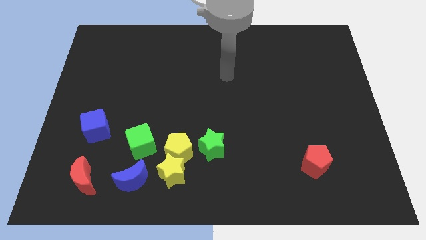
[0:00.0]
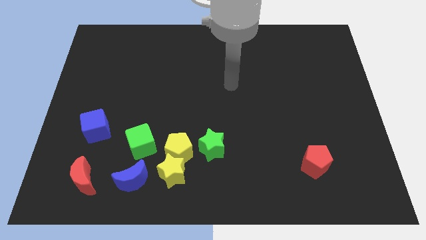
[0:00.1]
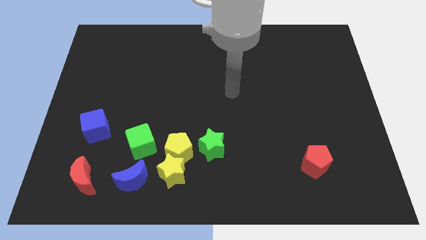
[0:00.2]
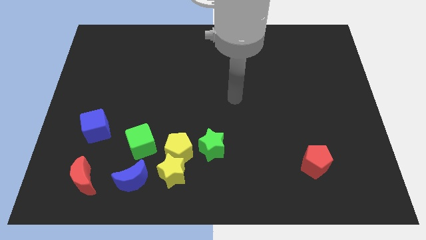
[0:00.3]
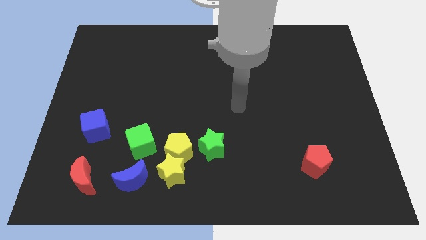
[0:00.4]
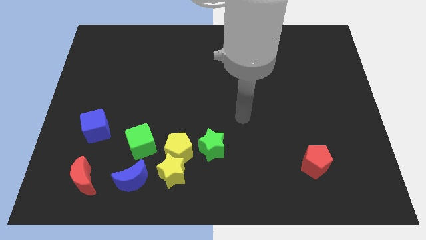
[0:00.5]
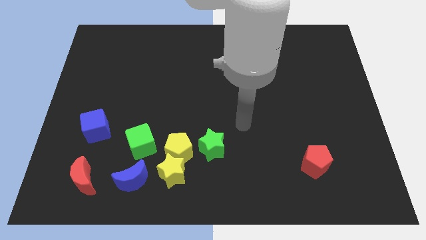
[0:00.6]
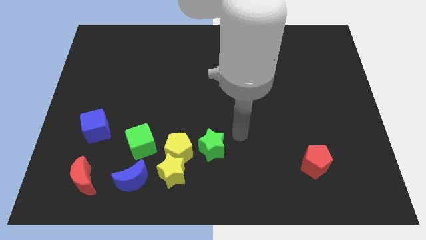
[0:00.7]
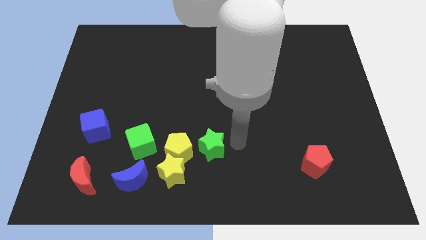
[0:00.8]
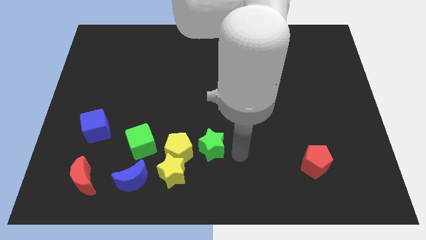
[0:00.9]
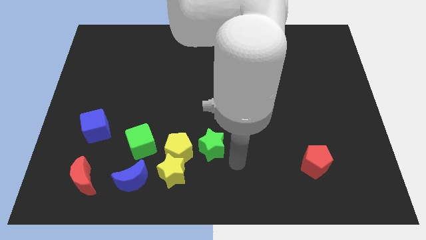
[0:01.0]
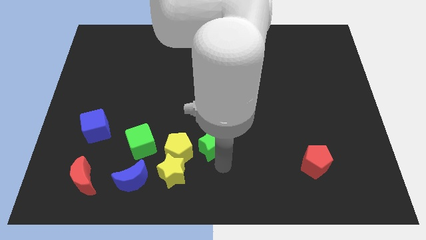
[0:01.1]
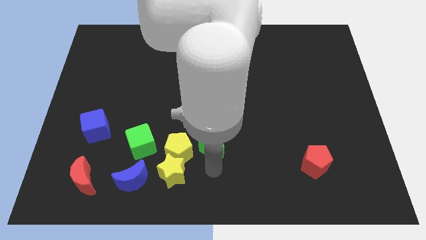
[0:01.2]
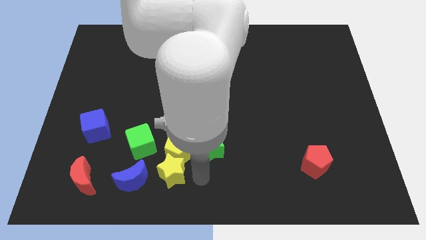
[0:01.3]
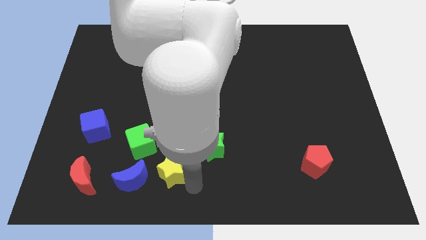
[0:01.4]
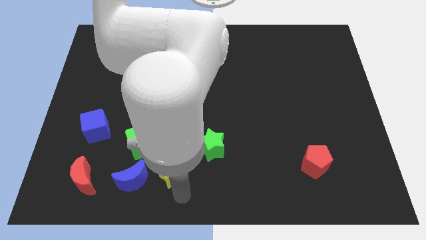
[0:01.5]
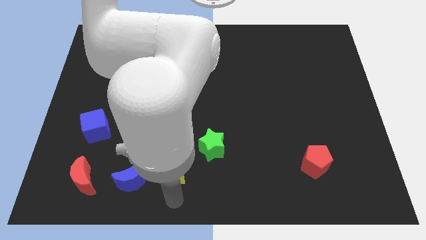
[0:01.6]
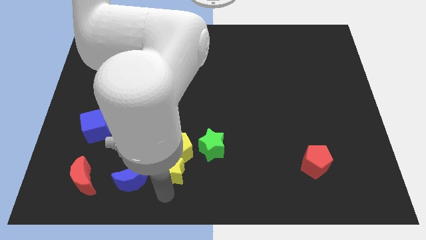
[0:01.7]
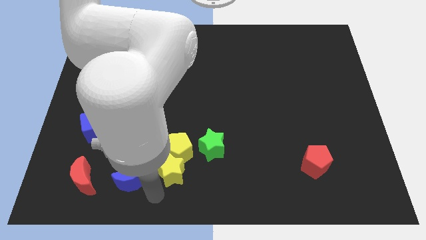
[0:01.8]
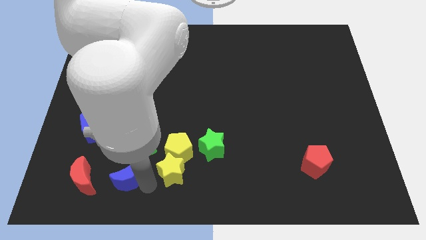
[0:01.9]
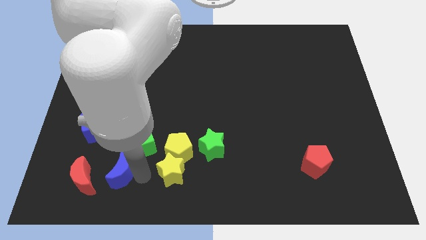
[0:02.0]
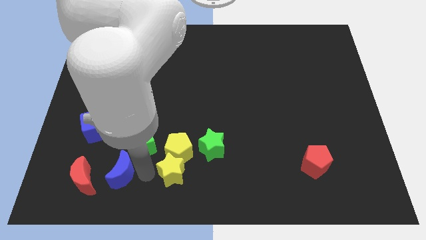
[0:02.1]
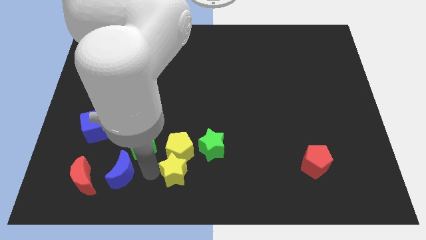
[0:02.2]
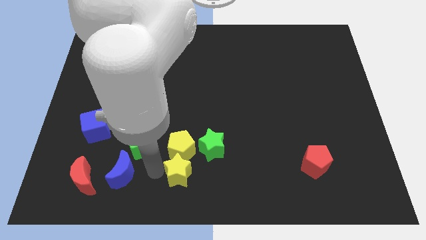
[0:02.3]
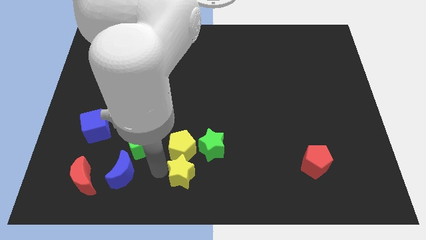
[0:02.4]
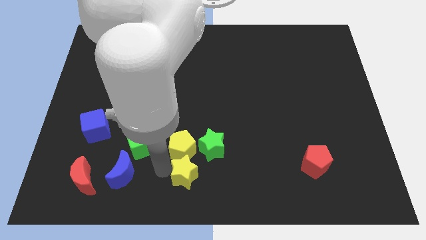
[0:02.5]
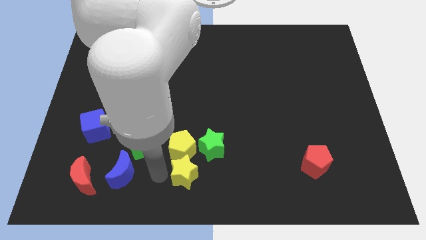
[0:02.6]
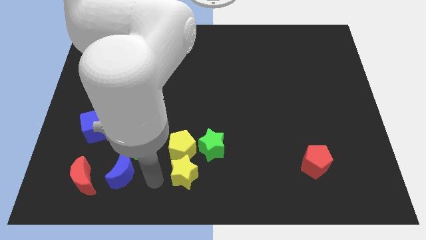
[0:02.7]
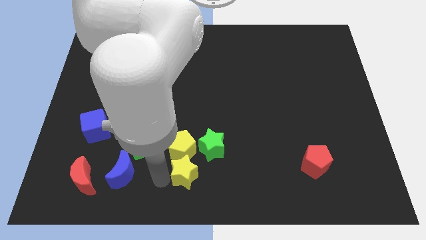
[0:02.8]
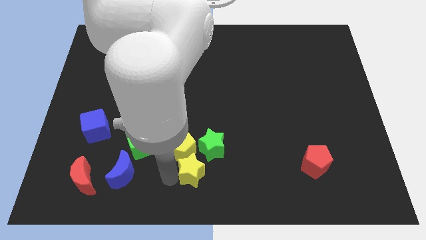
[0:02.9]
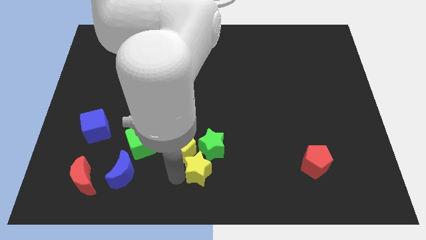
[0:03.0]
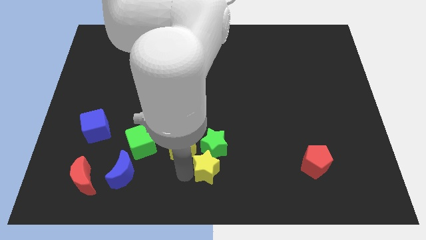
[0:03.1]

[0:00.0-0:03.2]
move the yellow star to the right somewhat

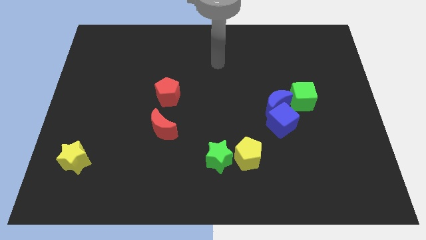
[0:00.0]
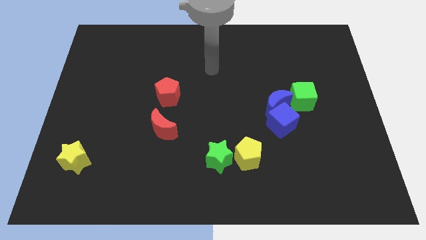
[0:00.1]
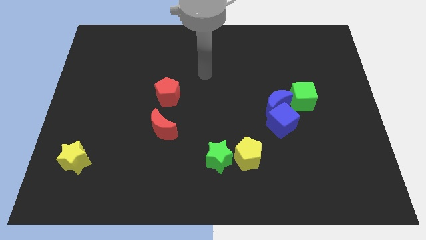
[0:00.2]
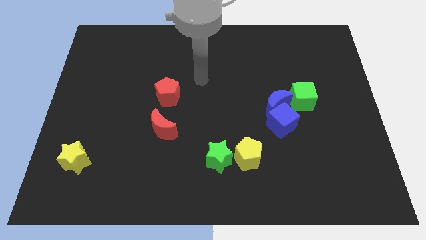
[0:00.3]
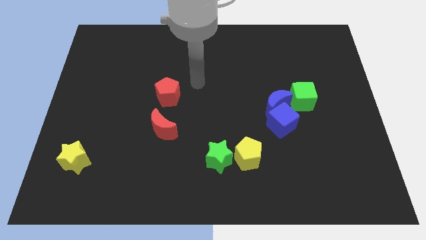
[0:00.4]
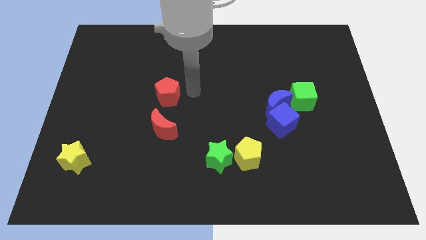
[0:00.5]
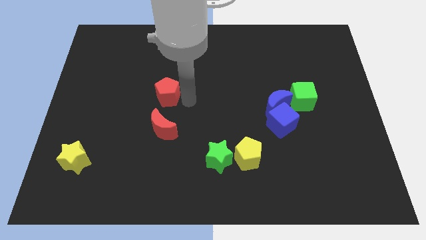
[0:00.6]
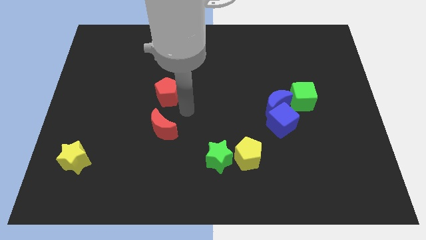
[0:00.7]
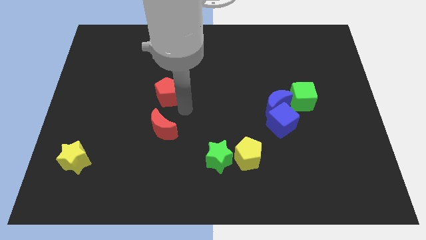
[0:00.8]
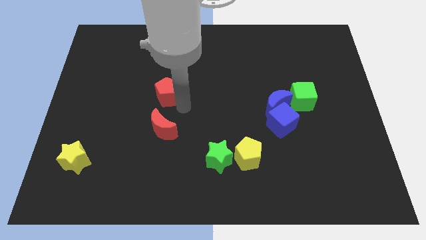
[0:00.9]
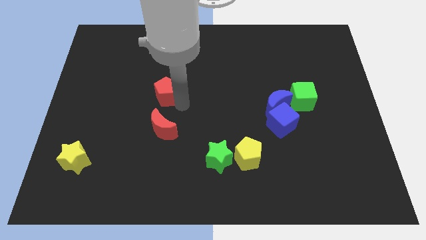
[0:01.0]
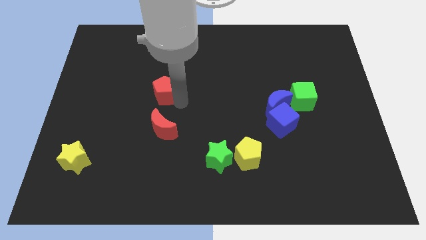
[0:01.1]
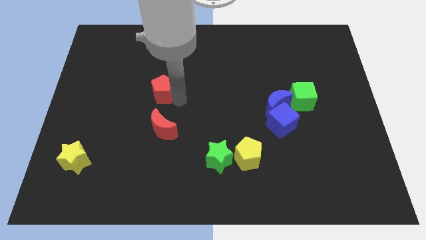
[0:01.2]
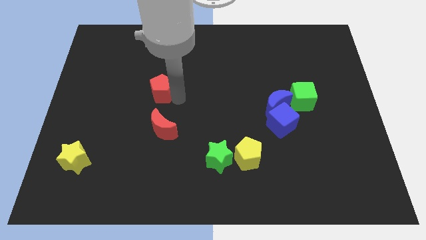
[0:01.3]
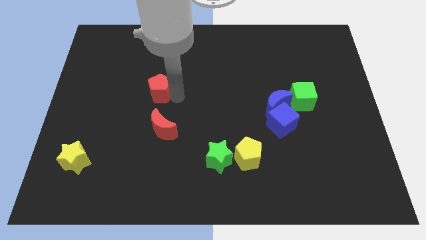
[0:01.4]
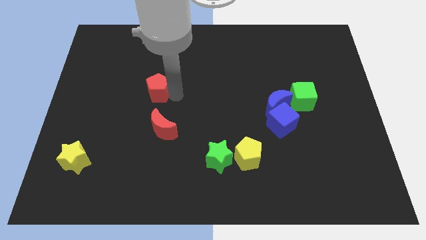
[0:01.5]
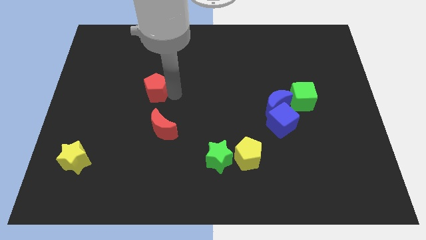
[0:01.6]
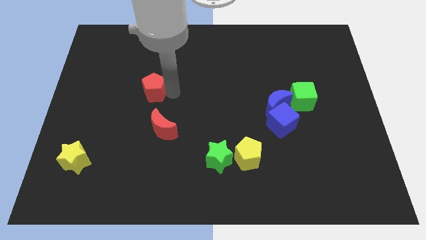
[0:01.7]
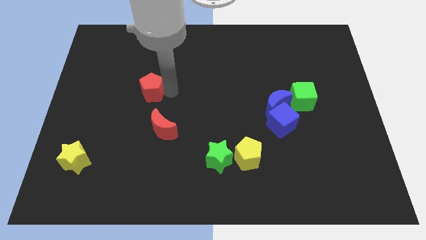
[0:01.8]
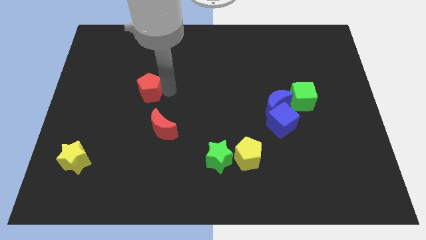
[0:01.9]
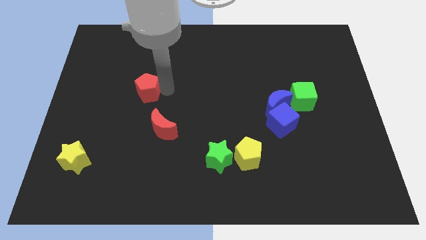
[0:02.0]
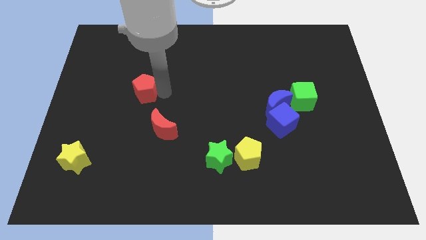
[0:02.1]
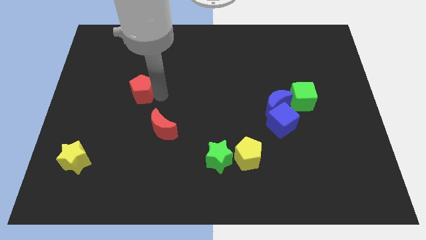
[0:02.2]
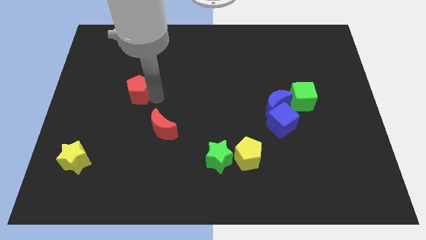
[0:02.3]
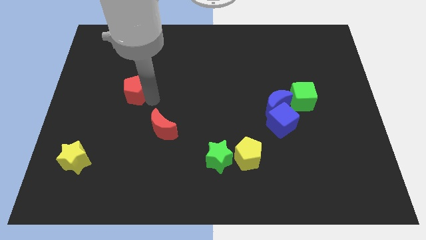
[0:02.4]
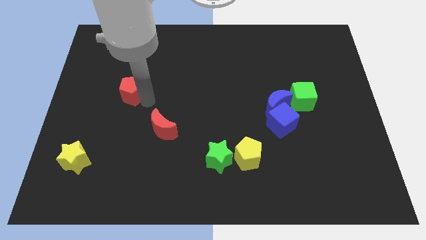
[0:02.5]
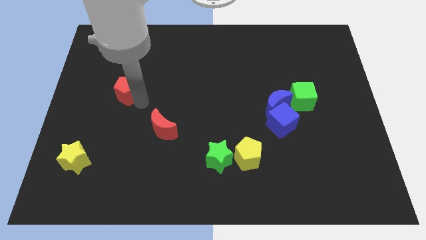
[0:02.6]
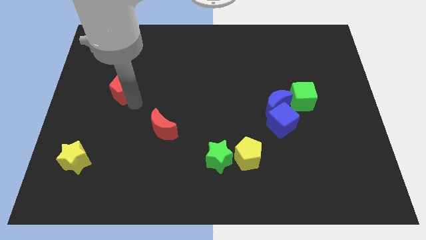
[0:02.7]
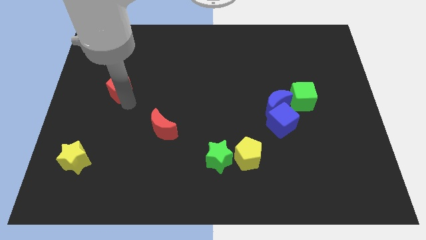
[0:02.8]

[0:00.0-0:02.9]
slightly slide the red pentagon up and left

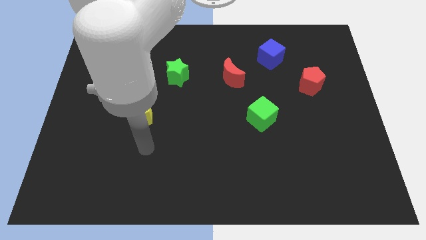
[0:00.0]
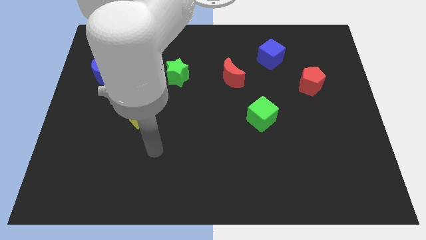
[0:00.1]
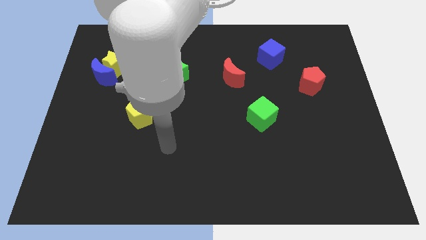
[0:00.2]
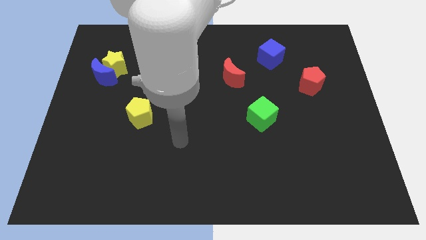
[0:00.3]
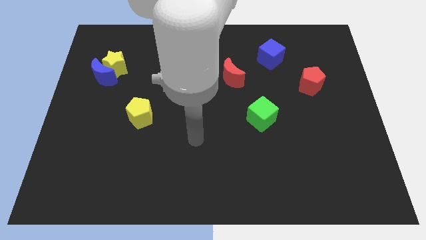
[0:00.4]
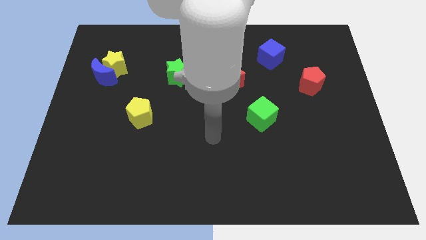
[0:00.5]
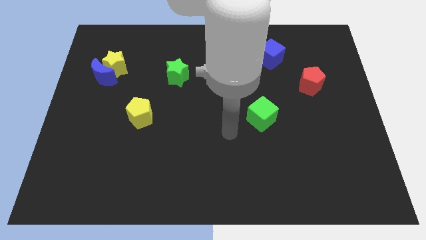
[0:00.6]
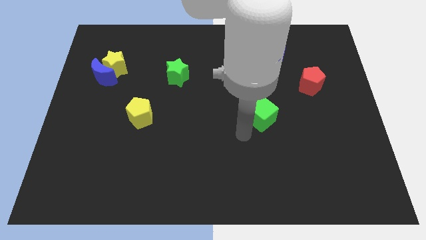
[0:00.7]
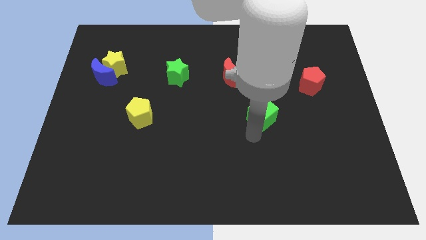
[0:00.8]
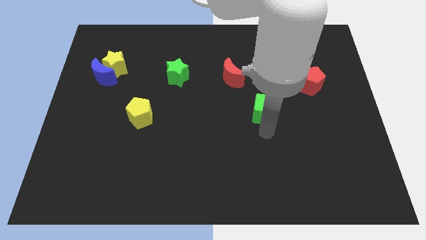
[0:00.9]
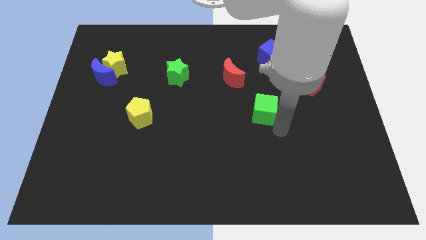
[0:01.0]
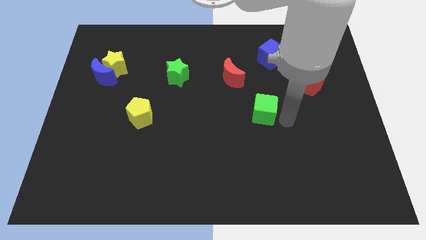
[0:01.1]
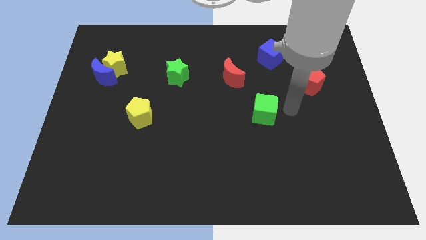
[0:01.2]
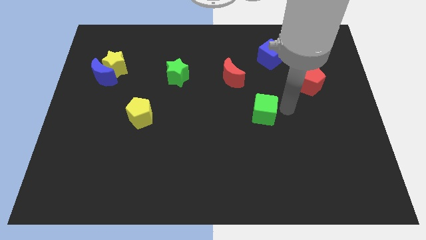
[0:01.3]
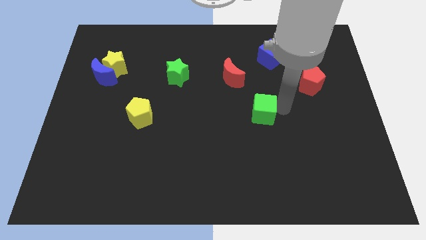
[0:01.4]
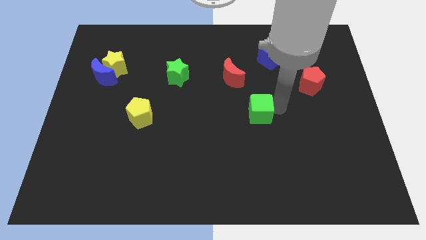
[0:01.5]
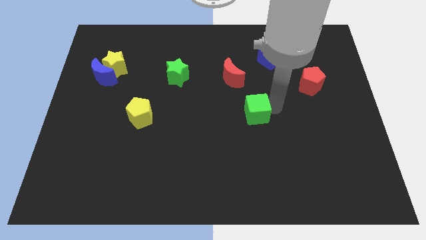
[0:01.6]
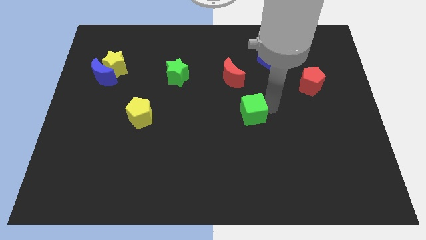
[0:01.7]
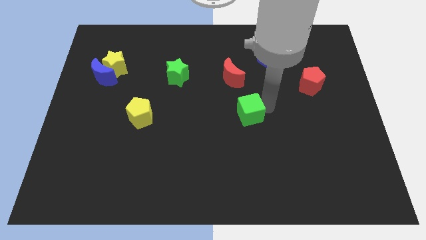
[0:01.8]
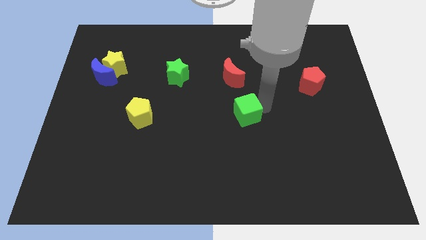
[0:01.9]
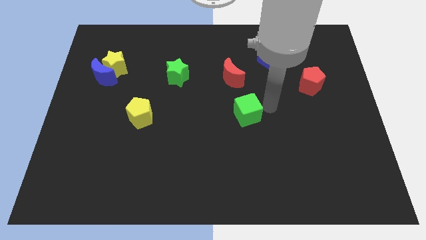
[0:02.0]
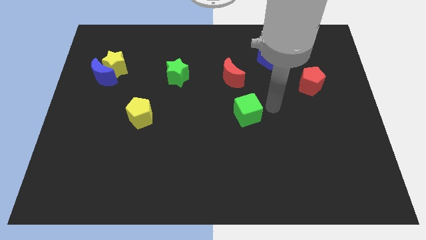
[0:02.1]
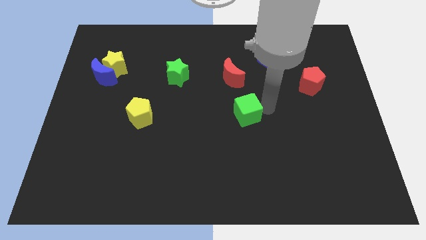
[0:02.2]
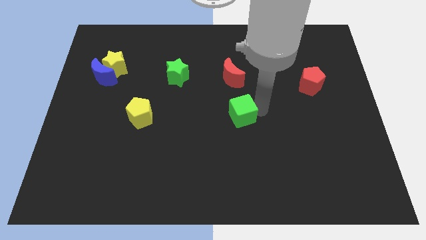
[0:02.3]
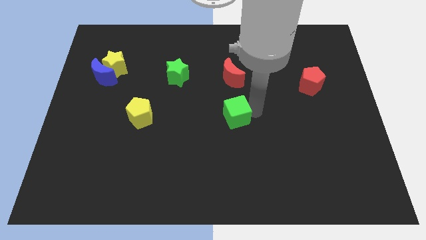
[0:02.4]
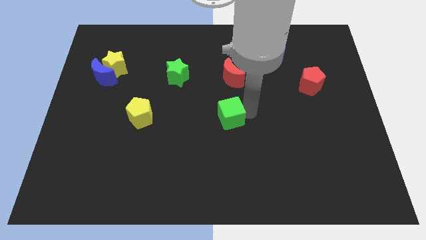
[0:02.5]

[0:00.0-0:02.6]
slide the green cube a bit to the left
